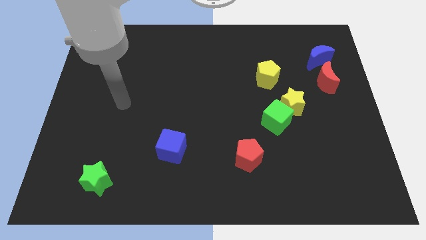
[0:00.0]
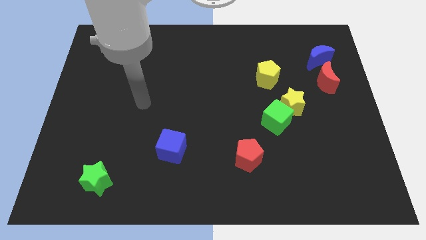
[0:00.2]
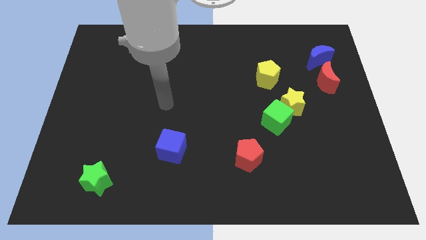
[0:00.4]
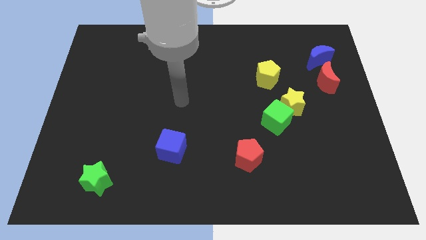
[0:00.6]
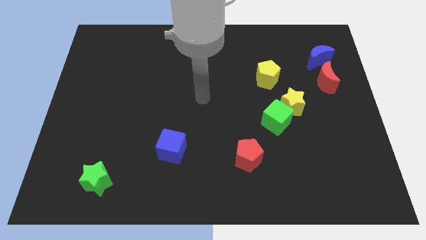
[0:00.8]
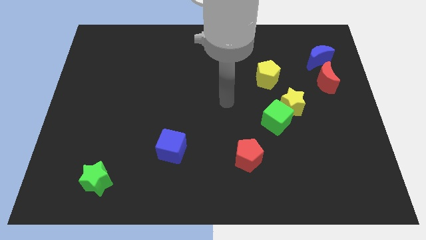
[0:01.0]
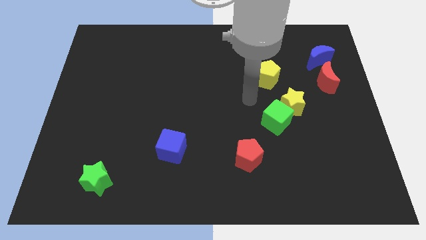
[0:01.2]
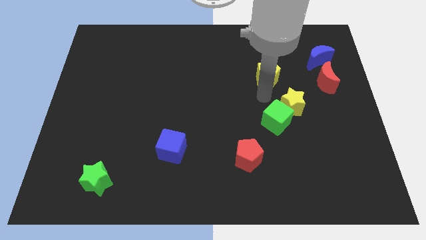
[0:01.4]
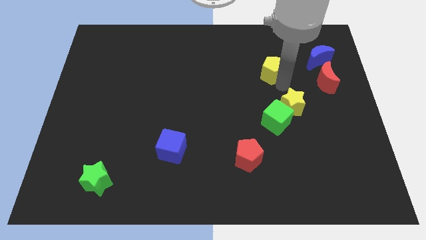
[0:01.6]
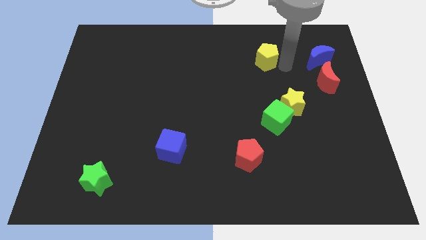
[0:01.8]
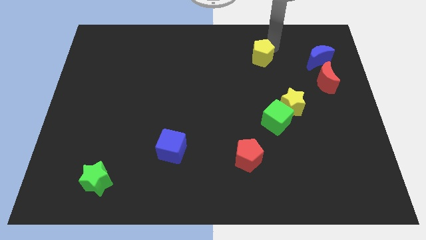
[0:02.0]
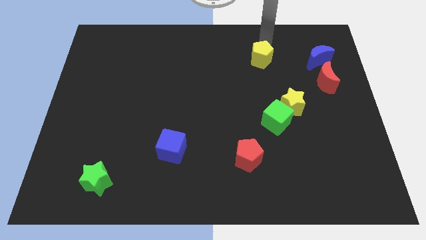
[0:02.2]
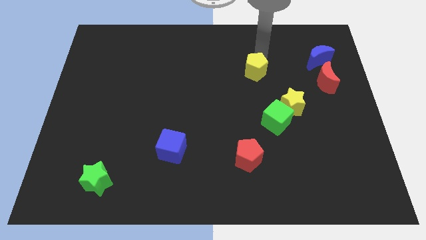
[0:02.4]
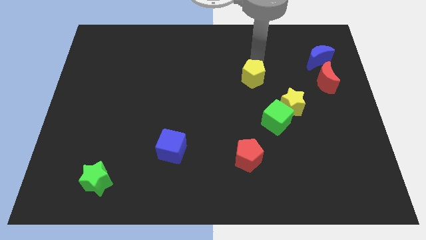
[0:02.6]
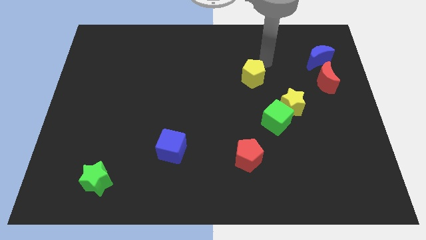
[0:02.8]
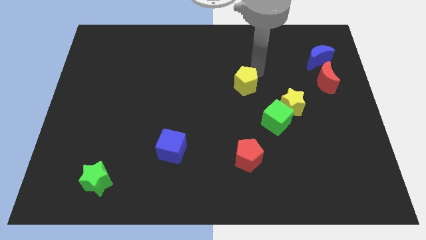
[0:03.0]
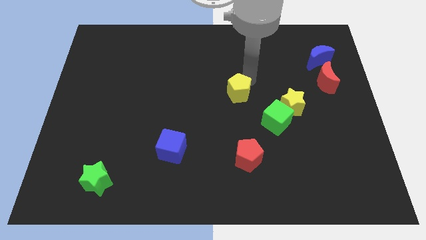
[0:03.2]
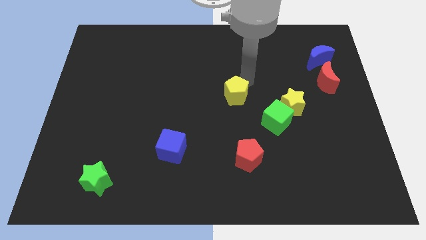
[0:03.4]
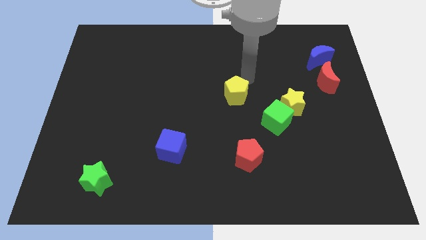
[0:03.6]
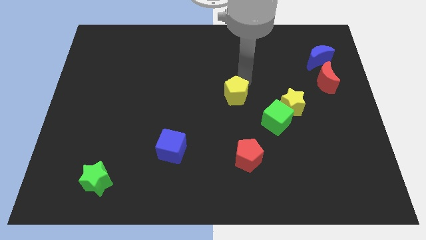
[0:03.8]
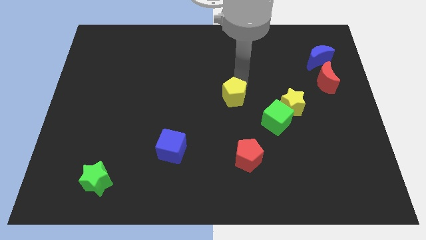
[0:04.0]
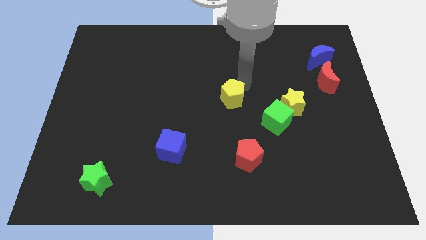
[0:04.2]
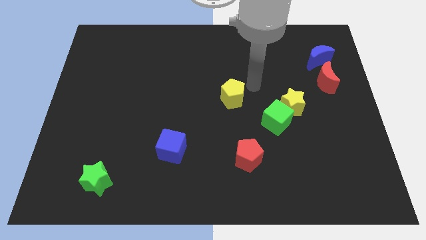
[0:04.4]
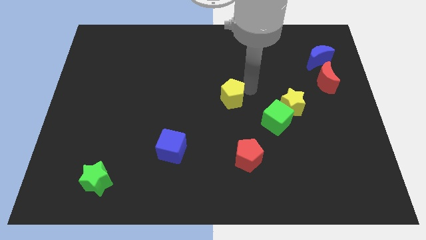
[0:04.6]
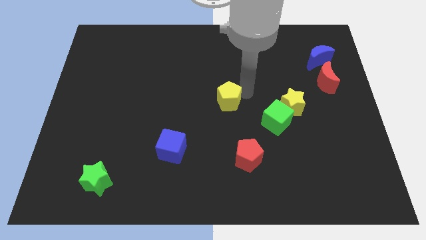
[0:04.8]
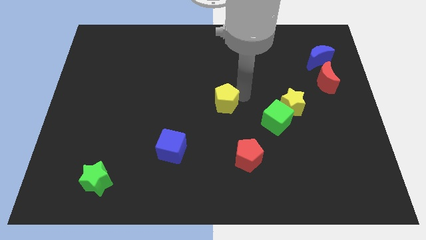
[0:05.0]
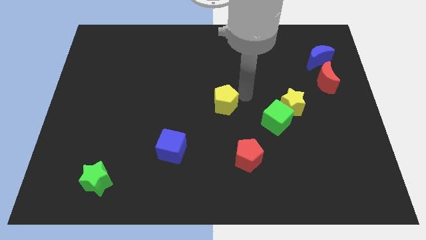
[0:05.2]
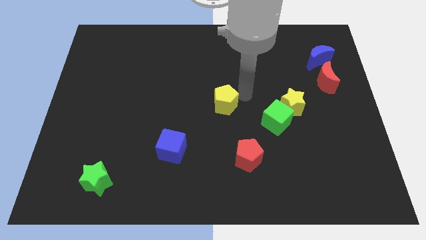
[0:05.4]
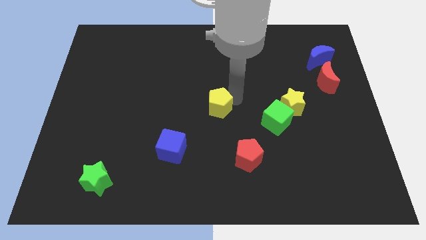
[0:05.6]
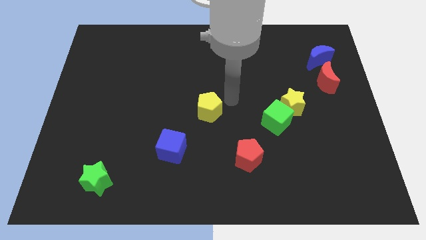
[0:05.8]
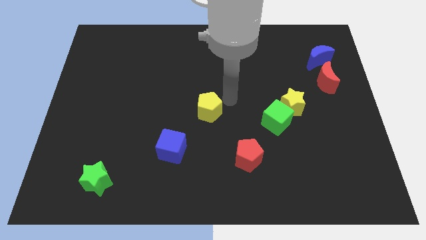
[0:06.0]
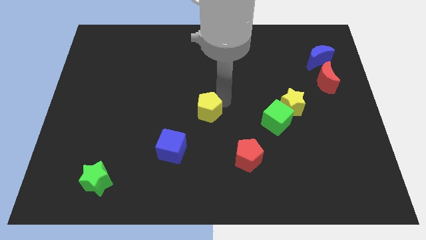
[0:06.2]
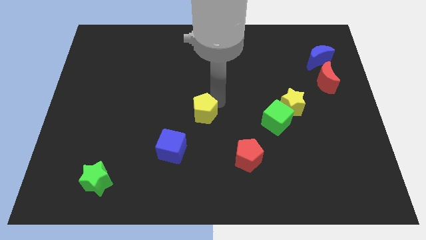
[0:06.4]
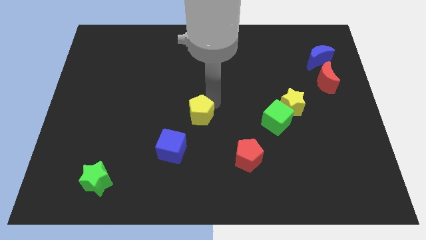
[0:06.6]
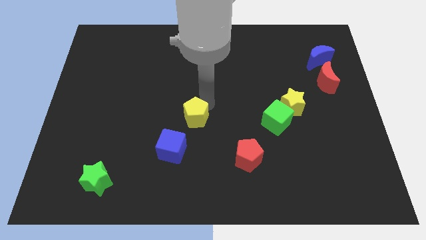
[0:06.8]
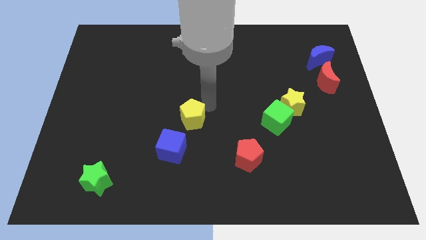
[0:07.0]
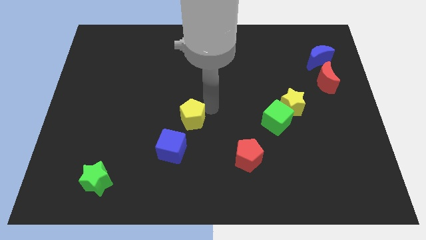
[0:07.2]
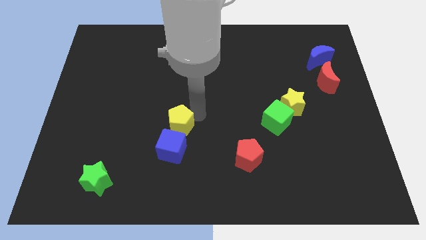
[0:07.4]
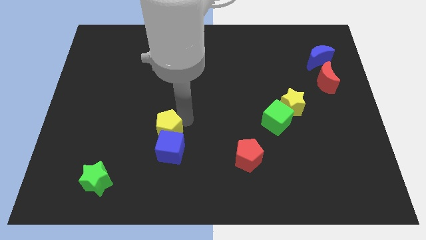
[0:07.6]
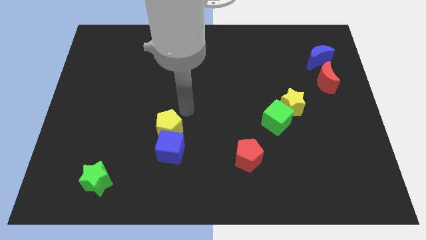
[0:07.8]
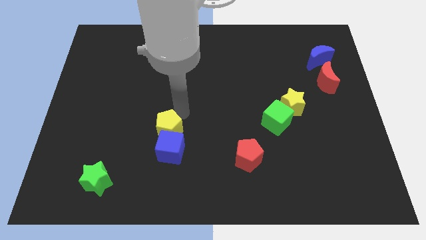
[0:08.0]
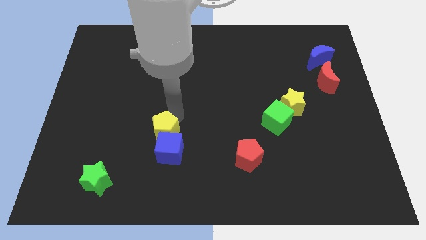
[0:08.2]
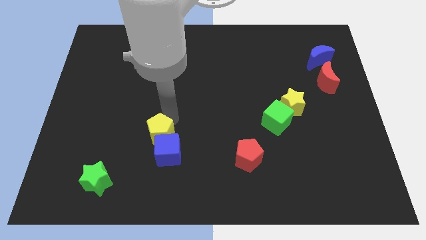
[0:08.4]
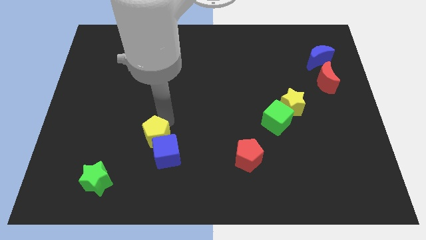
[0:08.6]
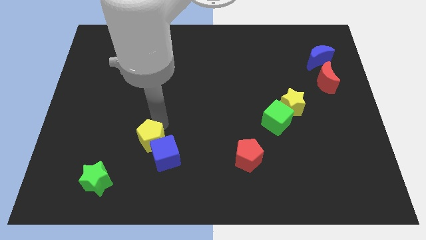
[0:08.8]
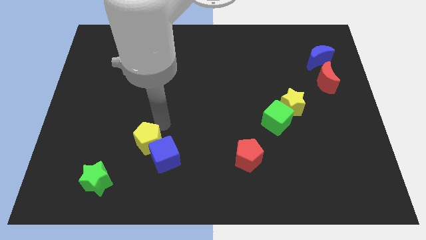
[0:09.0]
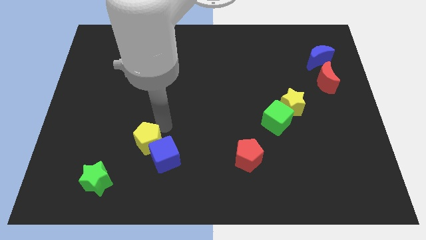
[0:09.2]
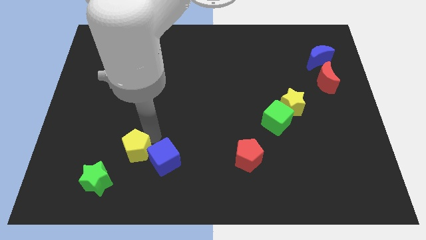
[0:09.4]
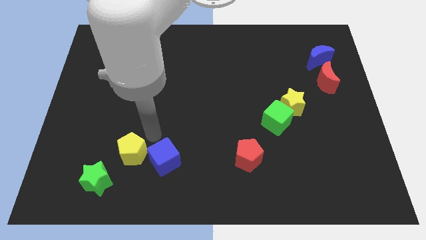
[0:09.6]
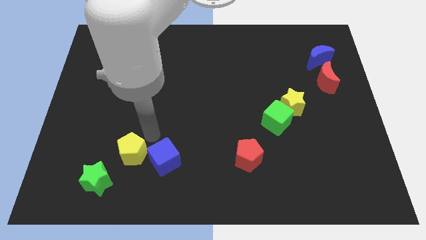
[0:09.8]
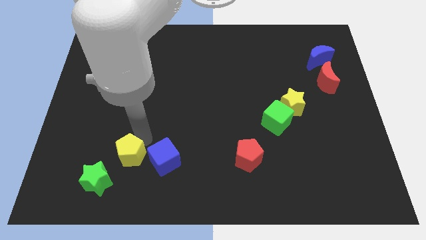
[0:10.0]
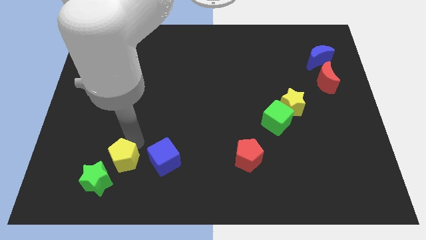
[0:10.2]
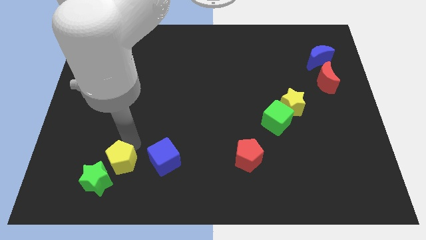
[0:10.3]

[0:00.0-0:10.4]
put the yellow pentagon to the green star

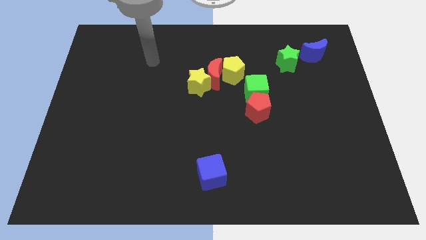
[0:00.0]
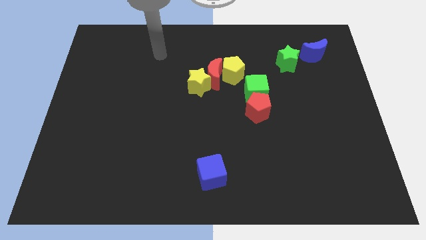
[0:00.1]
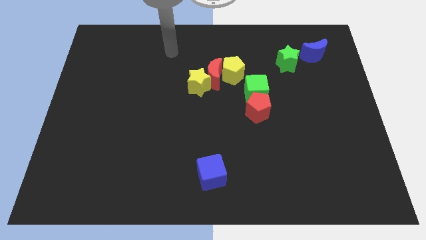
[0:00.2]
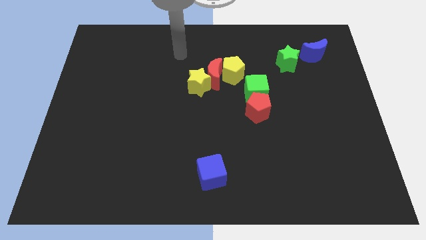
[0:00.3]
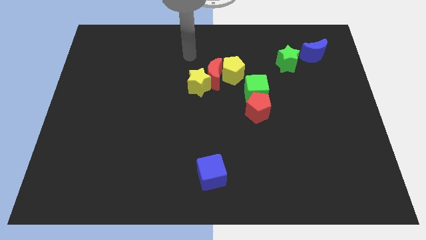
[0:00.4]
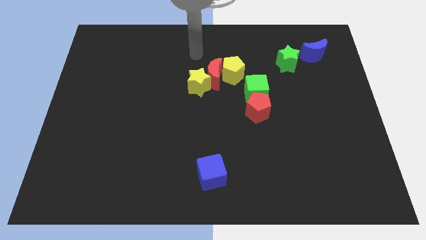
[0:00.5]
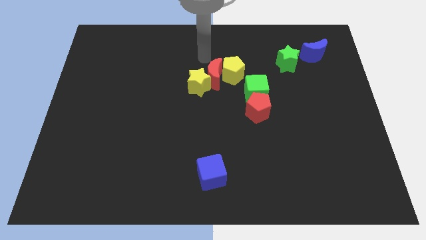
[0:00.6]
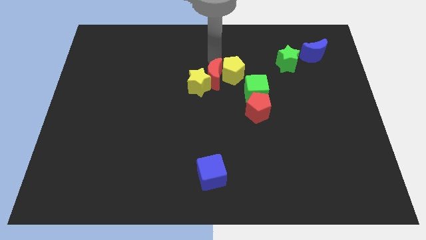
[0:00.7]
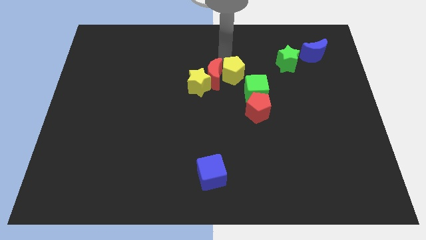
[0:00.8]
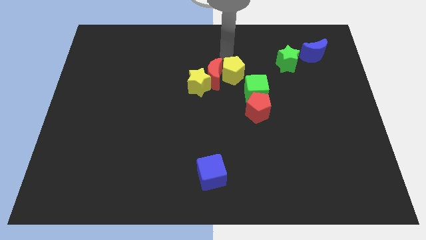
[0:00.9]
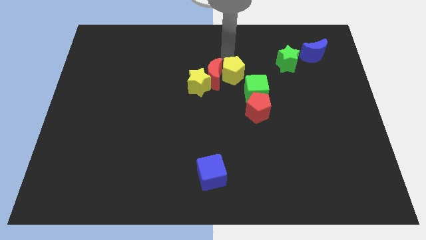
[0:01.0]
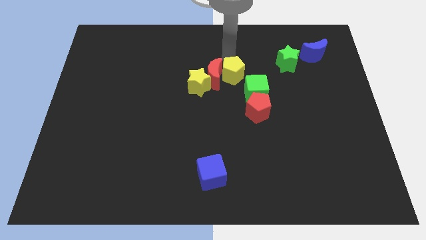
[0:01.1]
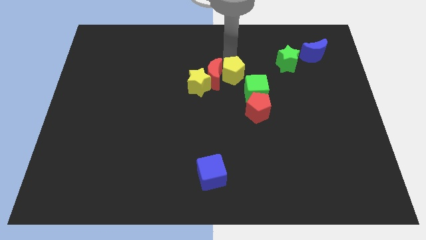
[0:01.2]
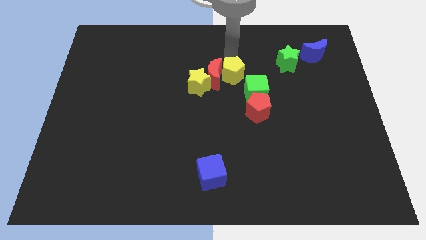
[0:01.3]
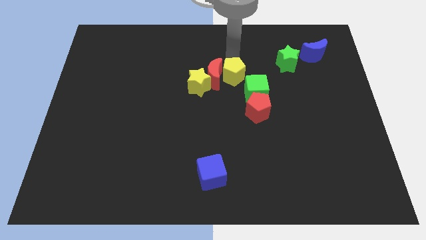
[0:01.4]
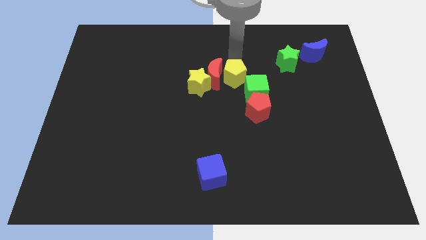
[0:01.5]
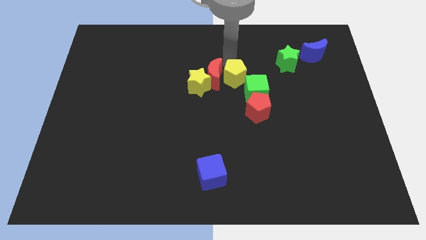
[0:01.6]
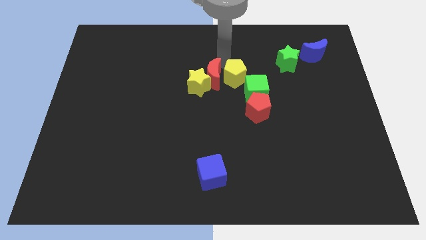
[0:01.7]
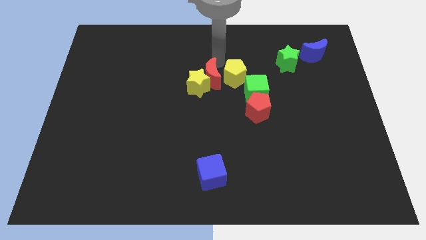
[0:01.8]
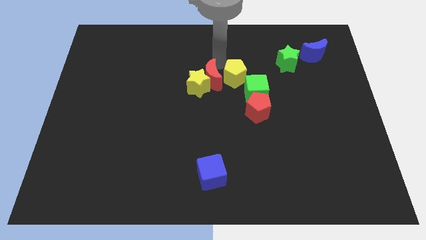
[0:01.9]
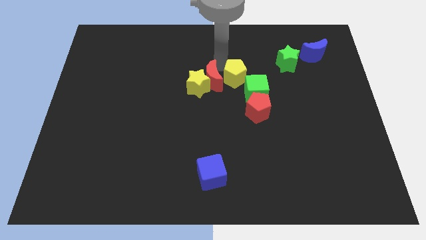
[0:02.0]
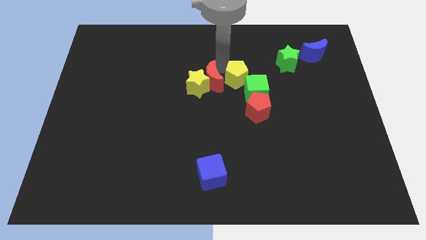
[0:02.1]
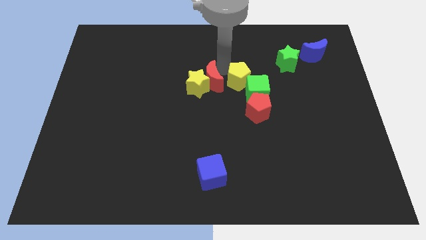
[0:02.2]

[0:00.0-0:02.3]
move the yellow pentagon towards the green cube

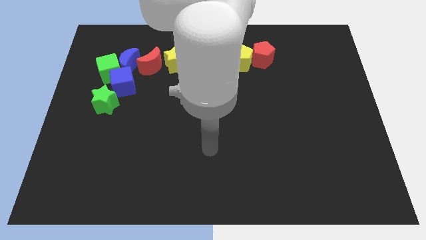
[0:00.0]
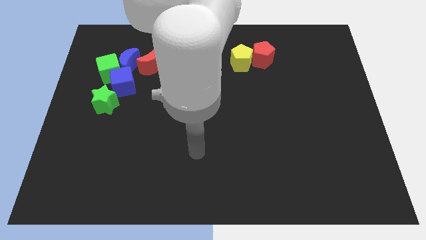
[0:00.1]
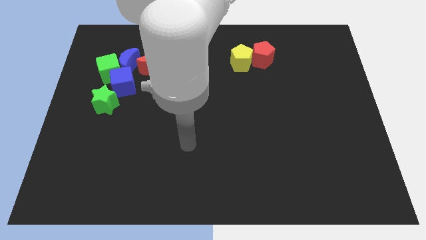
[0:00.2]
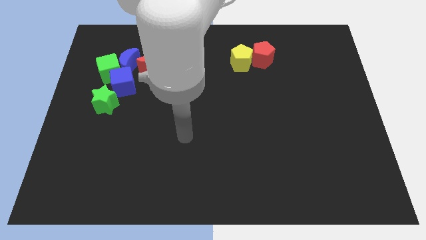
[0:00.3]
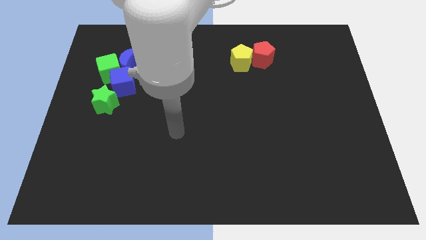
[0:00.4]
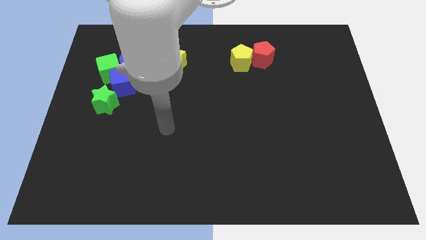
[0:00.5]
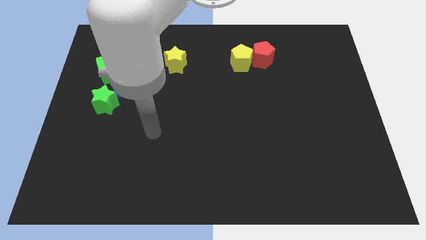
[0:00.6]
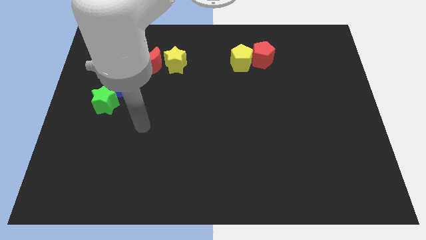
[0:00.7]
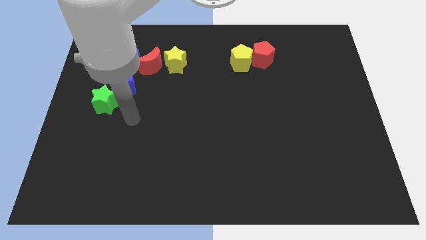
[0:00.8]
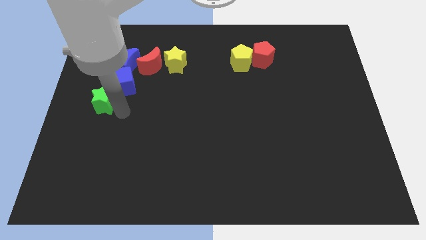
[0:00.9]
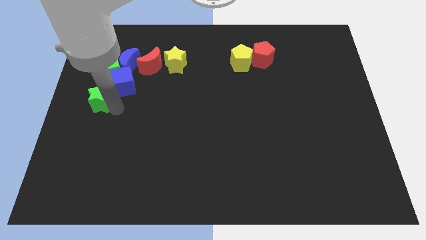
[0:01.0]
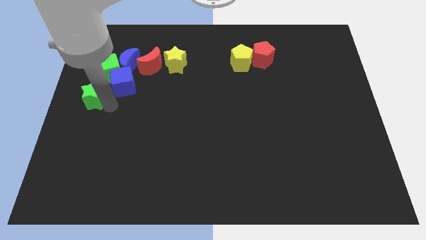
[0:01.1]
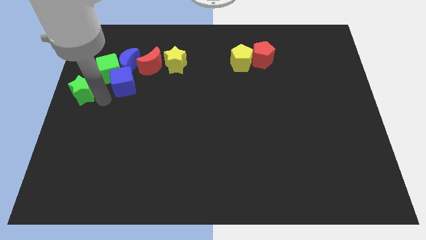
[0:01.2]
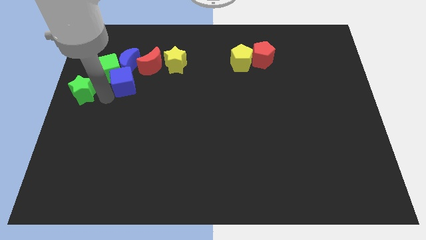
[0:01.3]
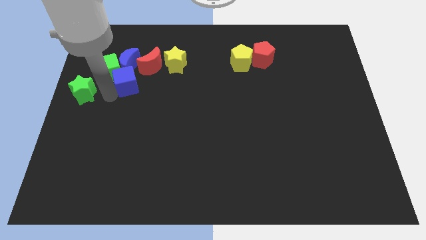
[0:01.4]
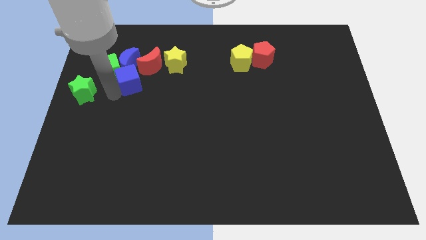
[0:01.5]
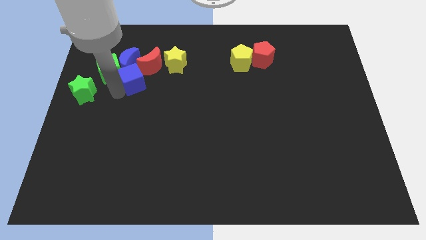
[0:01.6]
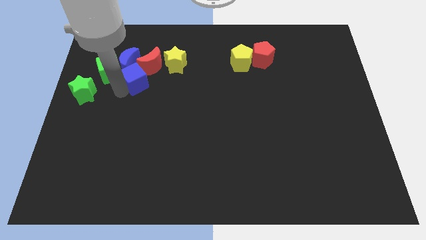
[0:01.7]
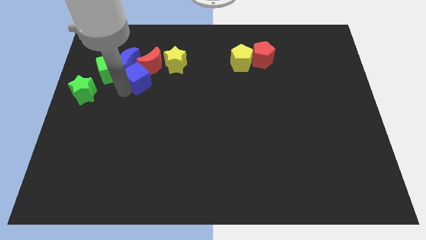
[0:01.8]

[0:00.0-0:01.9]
slide the blue cube next to the red moon
